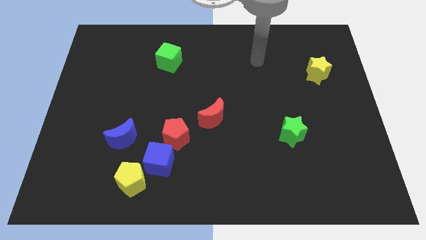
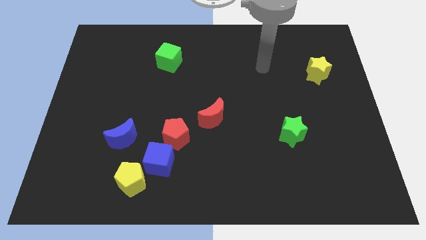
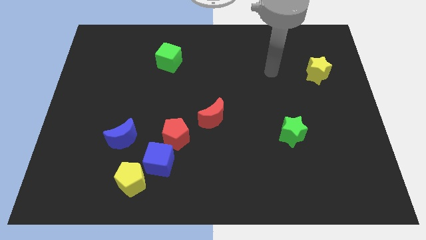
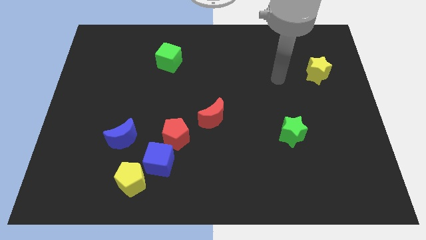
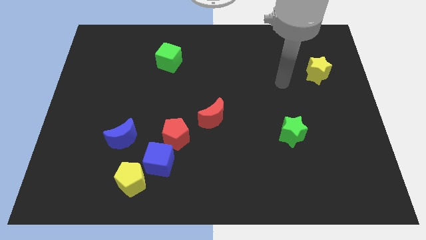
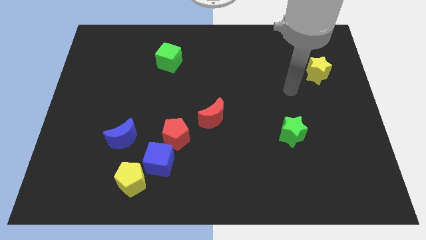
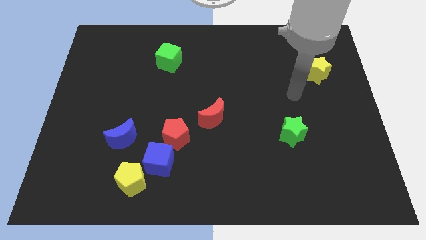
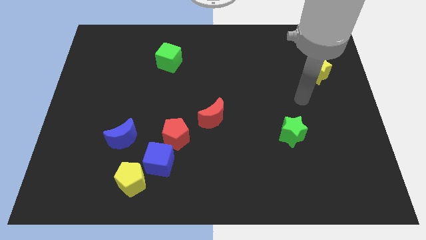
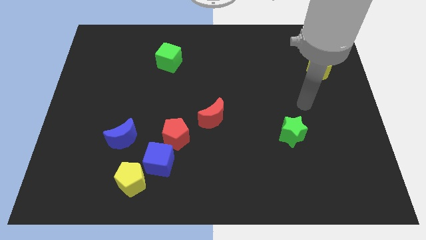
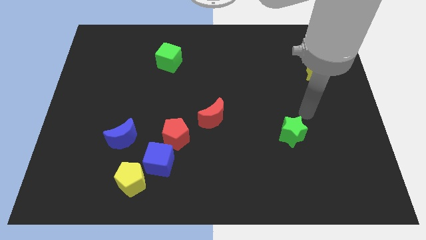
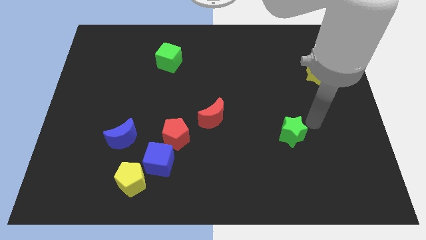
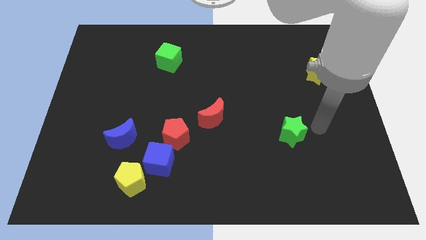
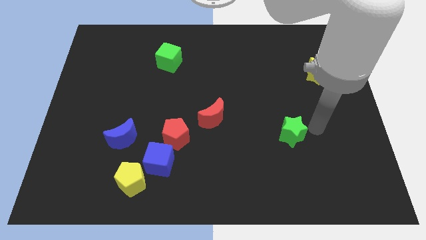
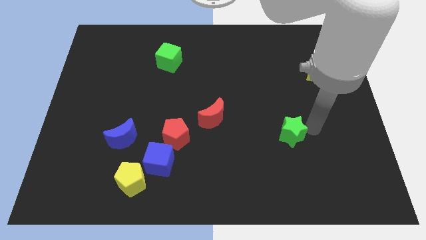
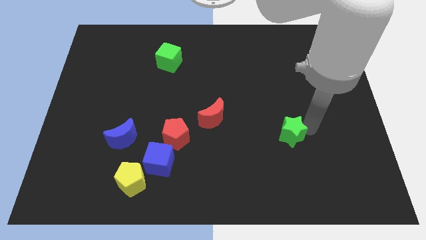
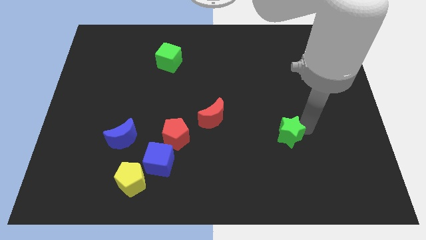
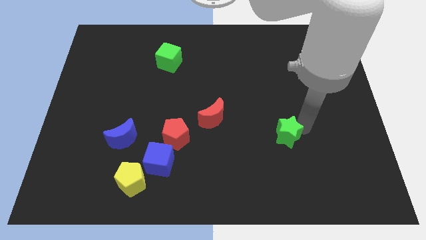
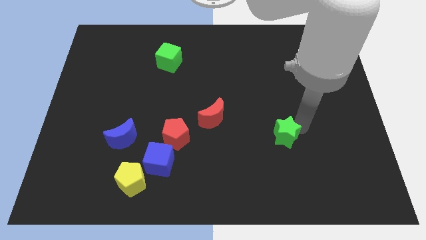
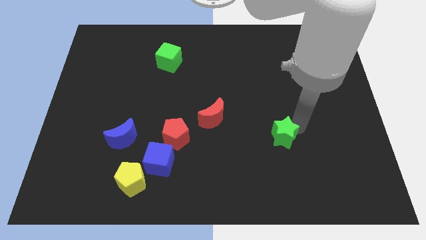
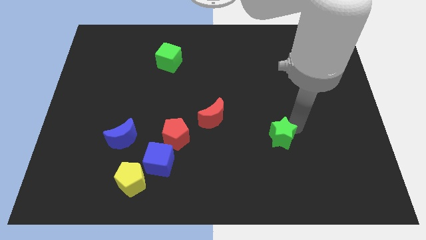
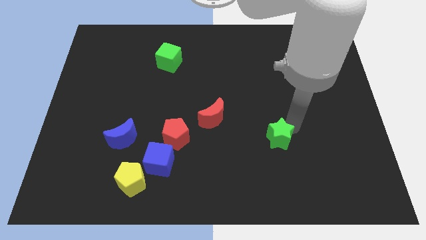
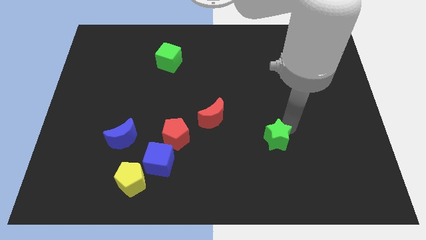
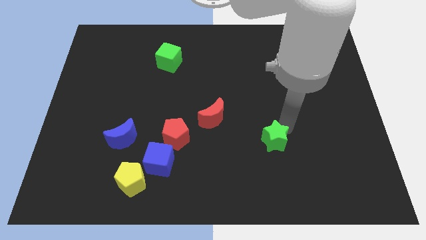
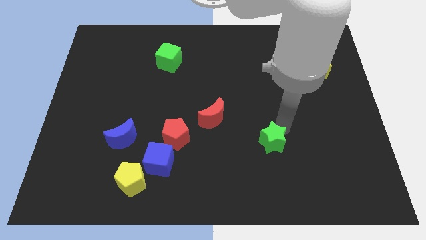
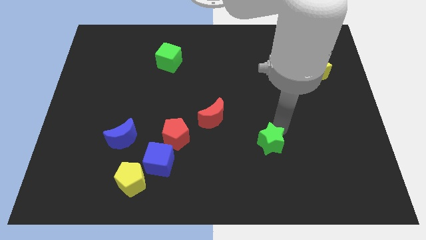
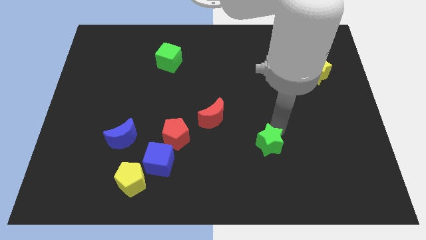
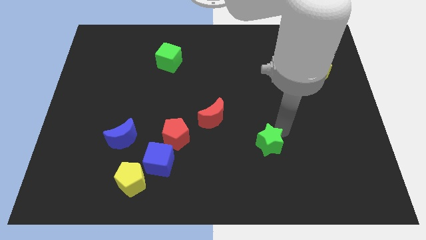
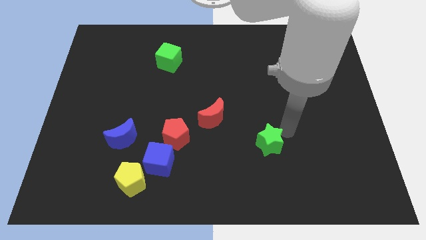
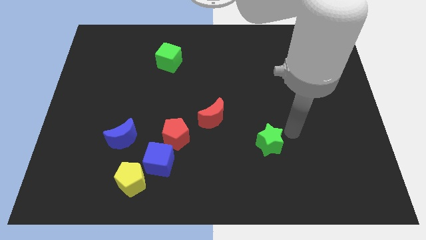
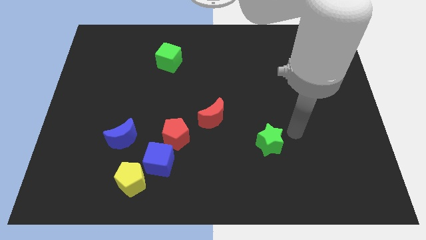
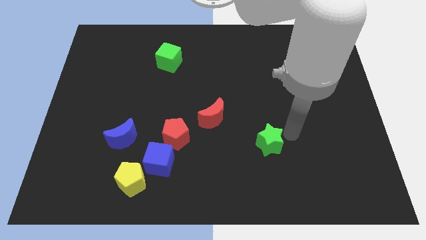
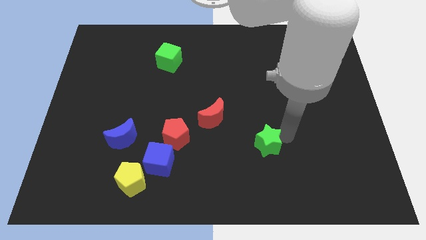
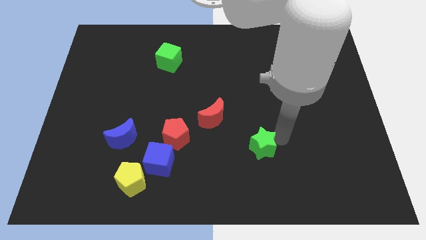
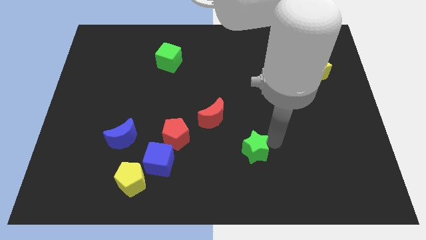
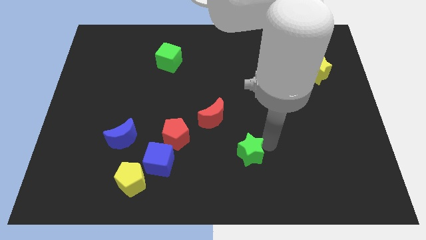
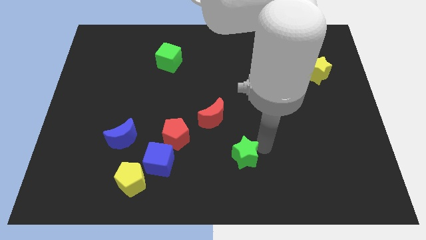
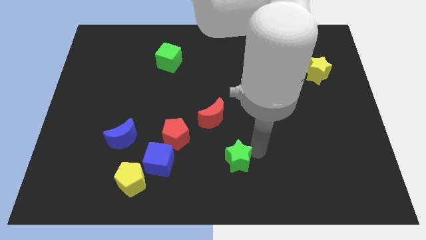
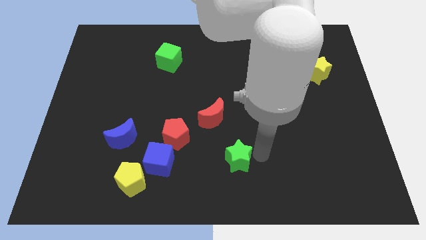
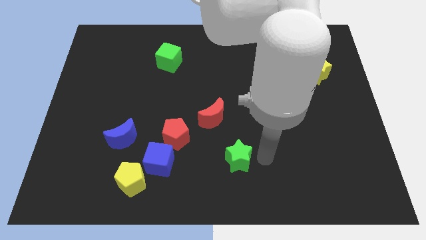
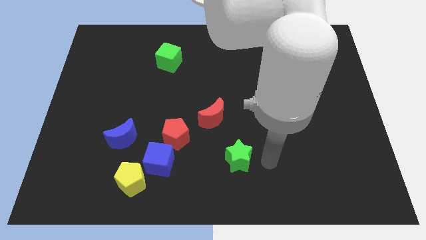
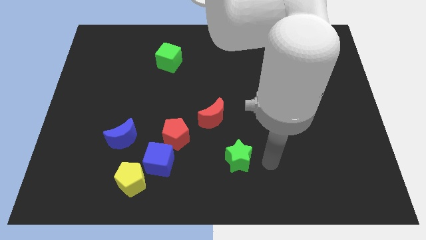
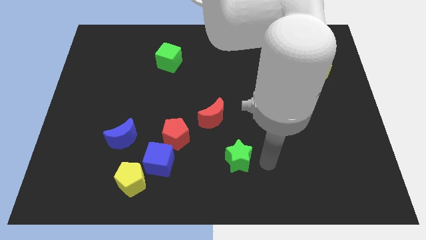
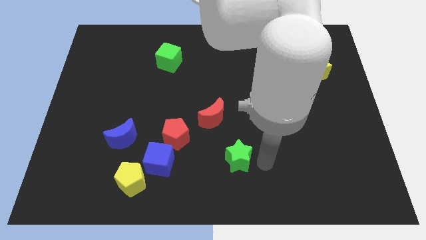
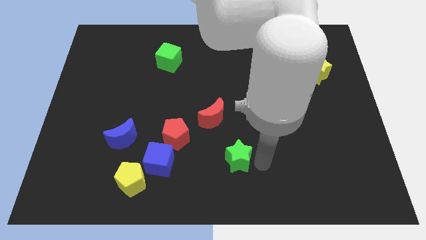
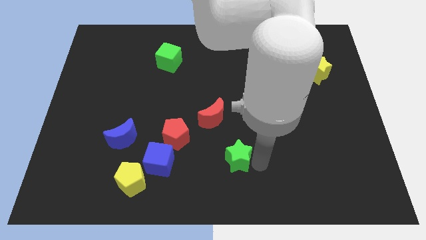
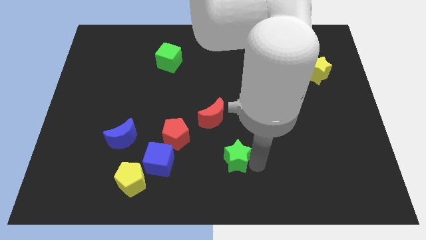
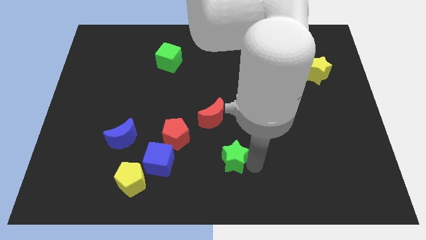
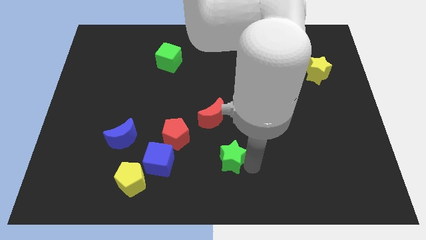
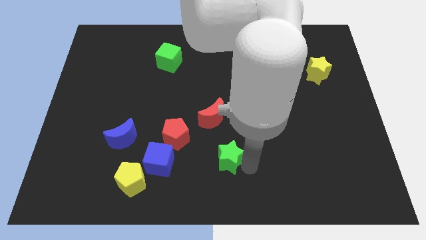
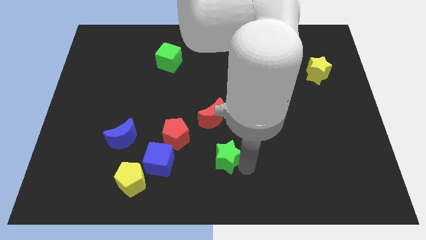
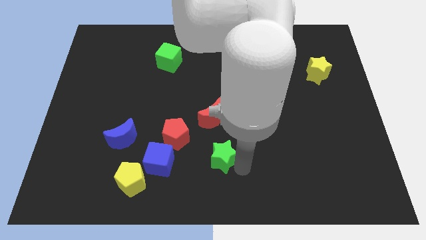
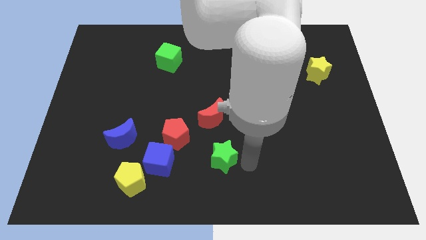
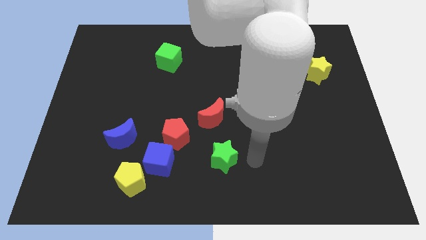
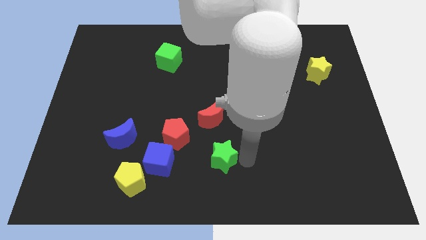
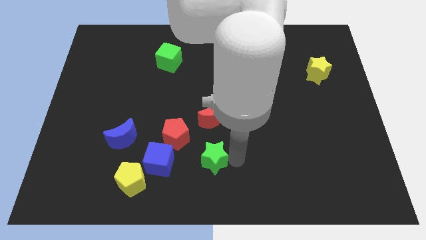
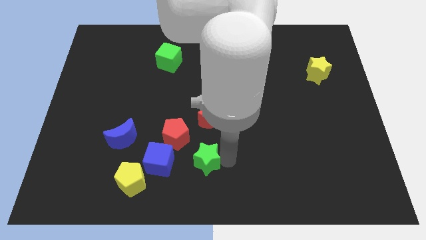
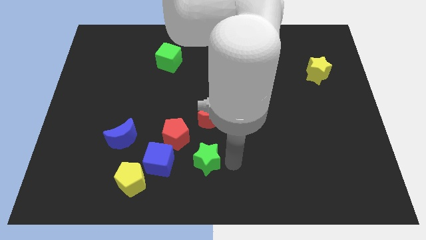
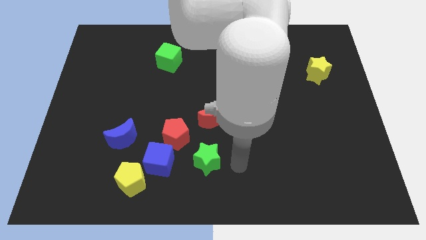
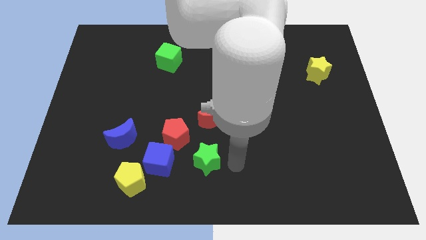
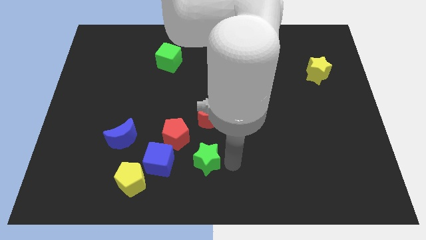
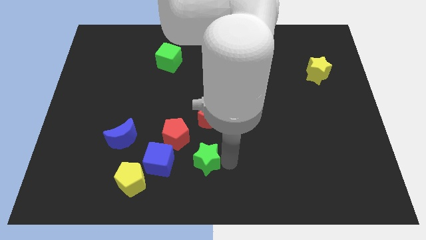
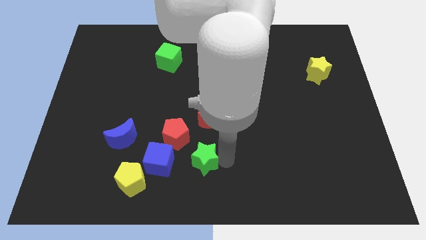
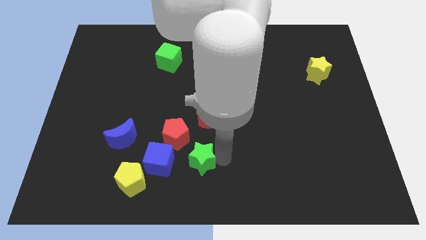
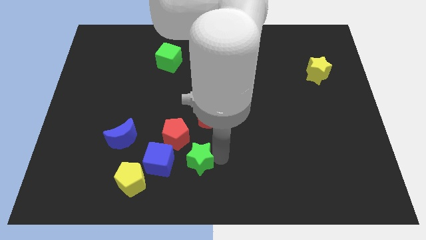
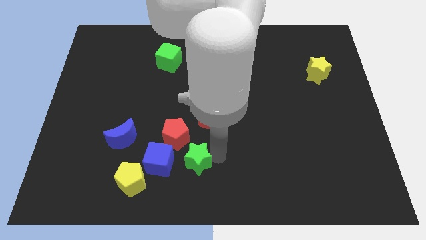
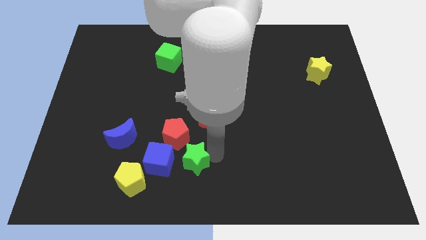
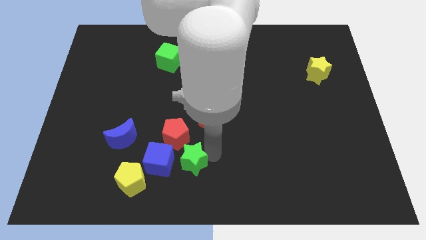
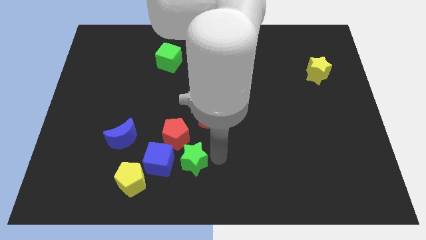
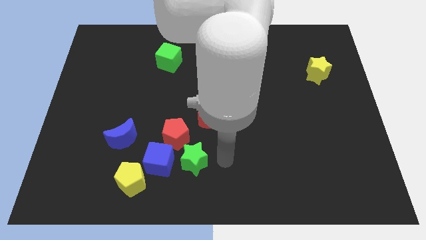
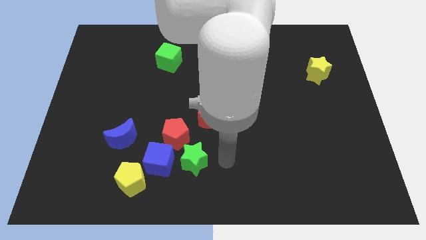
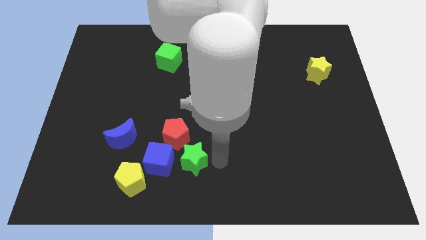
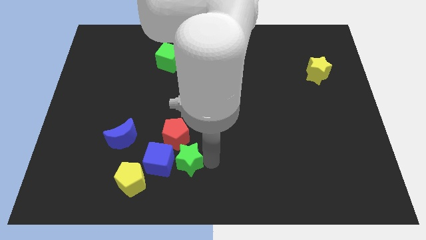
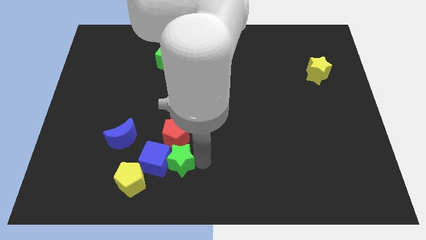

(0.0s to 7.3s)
put the green star close to the blue cube
